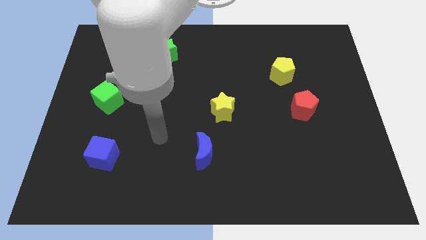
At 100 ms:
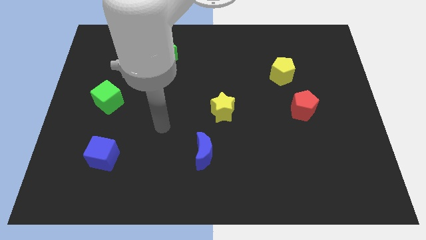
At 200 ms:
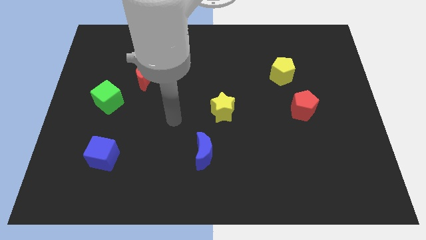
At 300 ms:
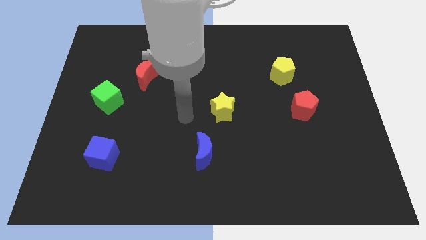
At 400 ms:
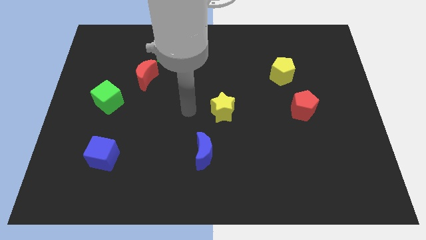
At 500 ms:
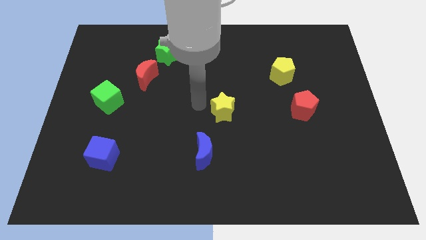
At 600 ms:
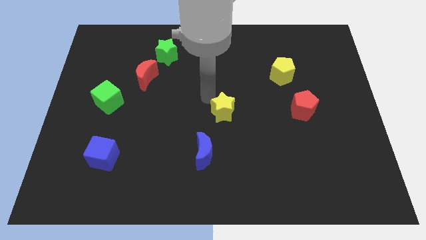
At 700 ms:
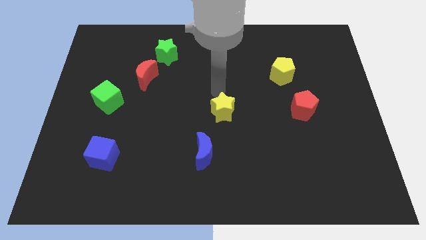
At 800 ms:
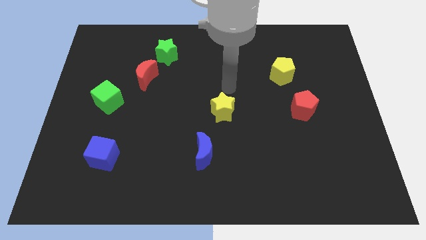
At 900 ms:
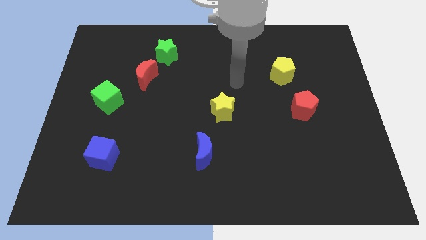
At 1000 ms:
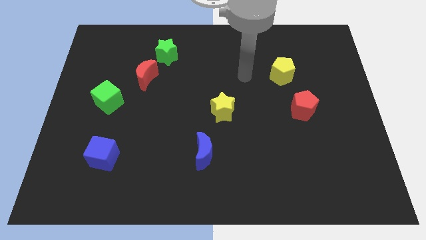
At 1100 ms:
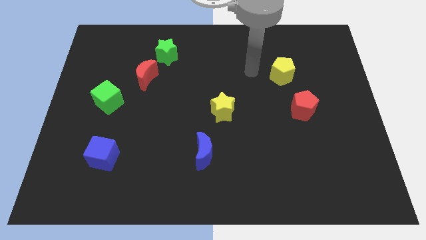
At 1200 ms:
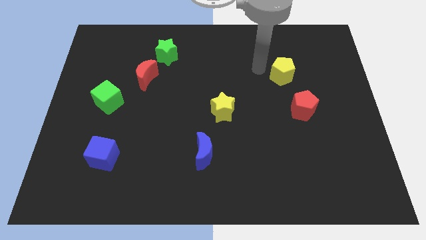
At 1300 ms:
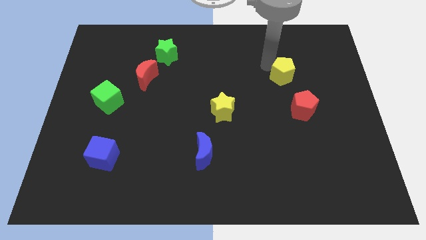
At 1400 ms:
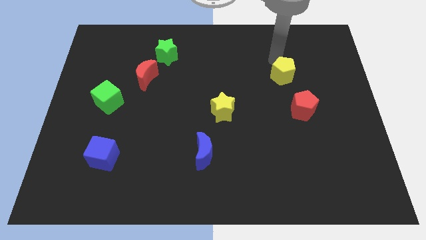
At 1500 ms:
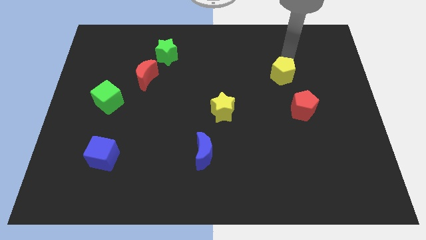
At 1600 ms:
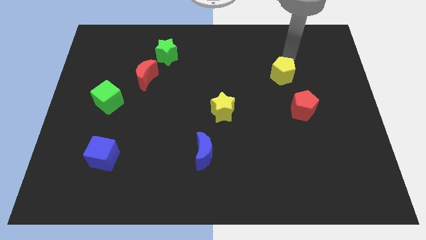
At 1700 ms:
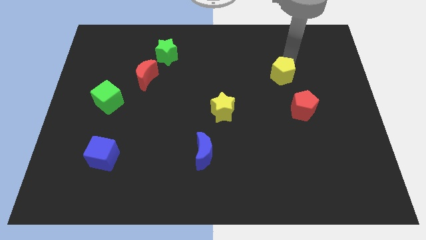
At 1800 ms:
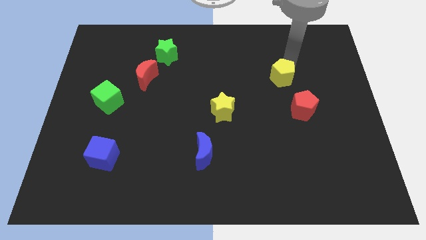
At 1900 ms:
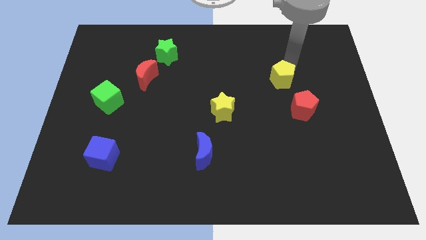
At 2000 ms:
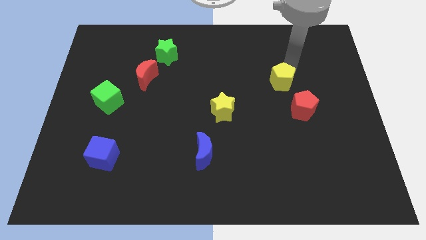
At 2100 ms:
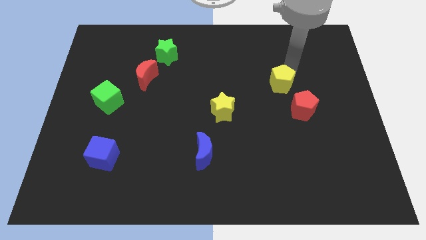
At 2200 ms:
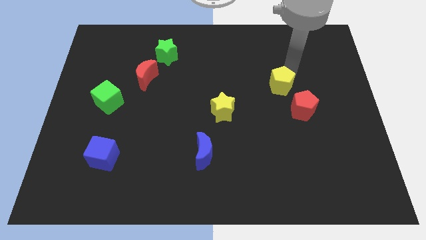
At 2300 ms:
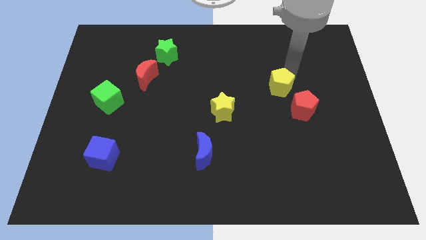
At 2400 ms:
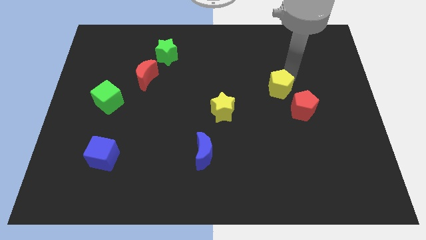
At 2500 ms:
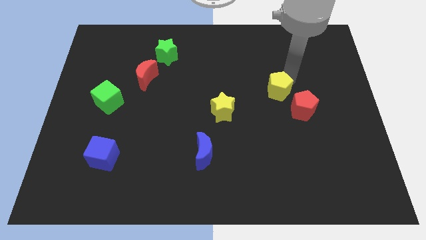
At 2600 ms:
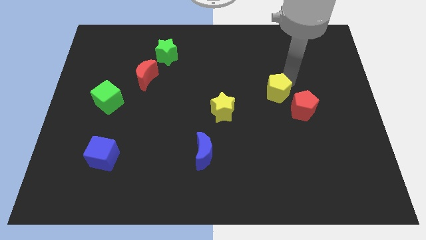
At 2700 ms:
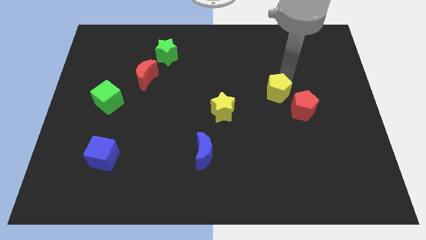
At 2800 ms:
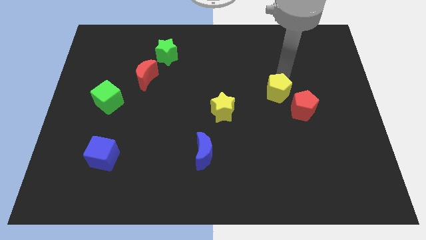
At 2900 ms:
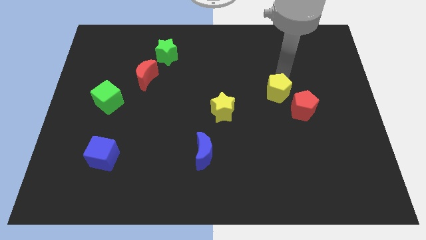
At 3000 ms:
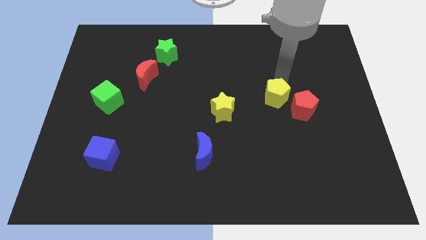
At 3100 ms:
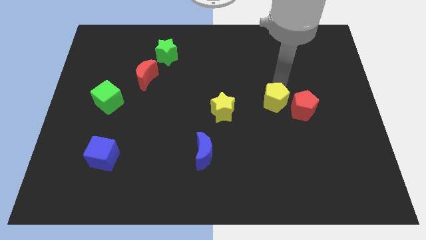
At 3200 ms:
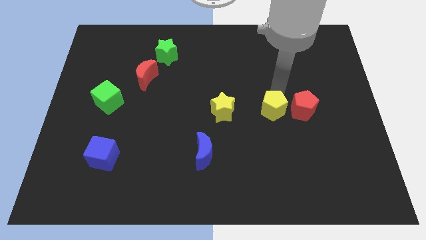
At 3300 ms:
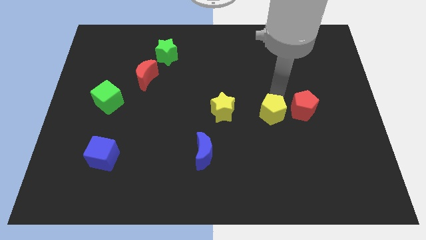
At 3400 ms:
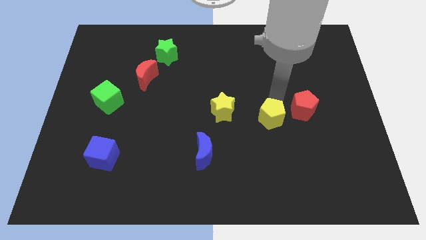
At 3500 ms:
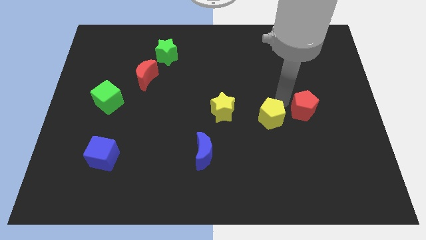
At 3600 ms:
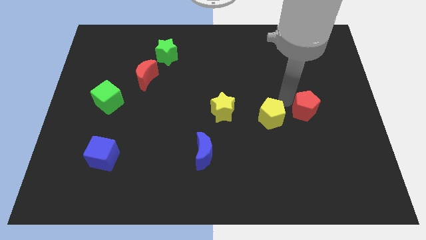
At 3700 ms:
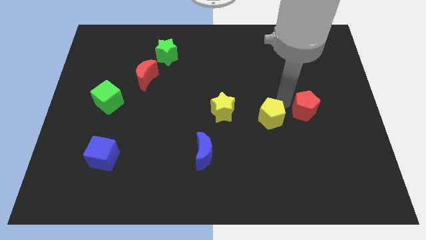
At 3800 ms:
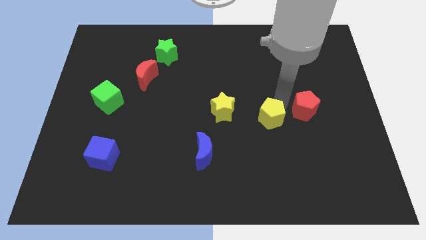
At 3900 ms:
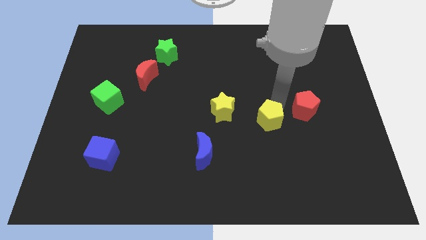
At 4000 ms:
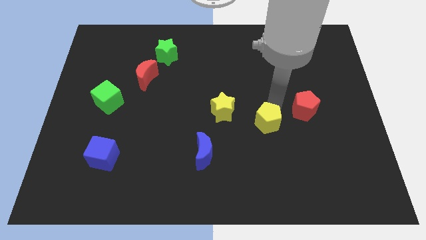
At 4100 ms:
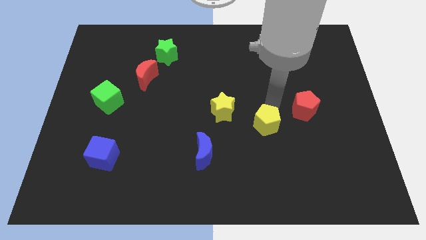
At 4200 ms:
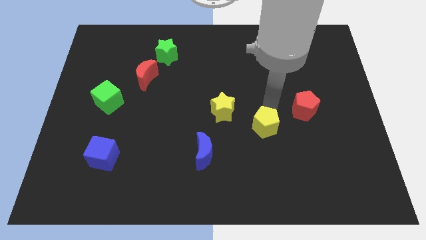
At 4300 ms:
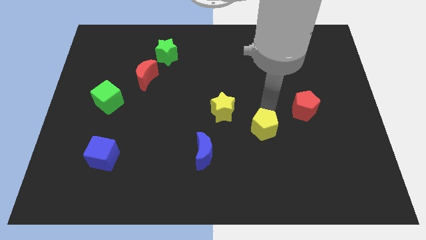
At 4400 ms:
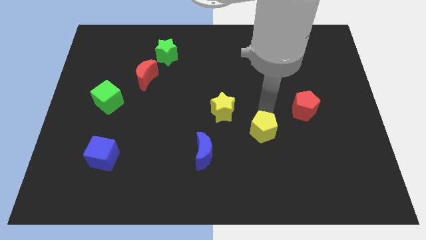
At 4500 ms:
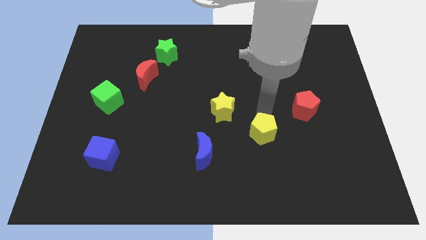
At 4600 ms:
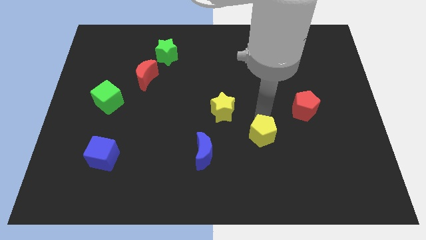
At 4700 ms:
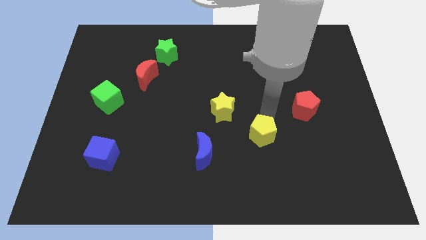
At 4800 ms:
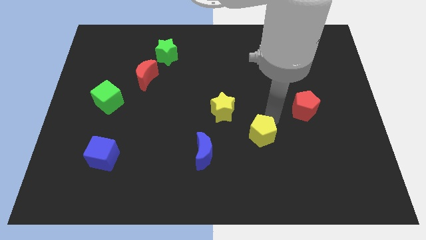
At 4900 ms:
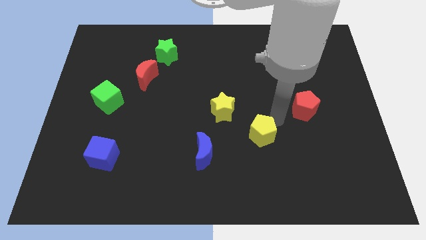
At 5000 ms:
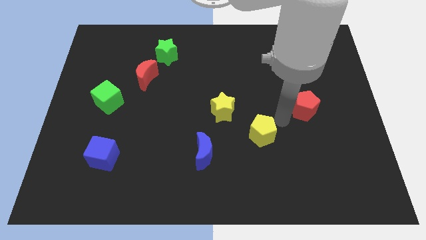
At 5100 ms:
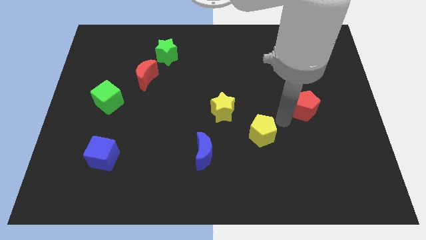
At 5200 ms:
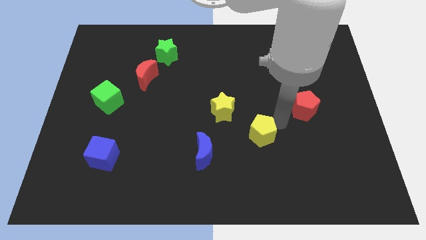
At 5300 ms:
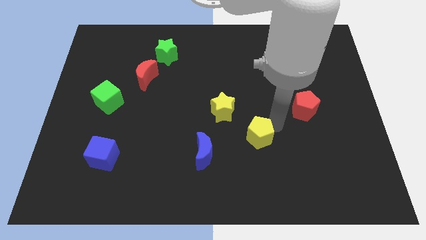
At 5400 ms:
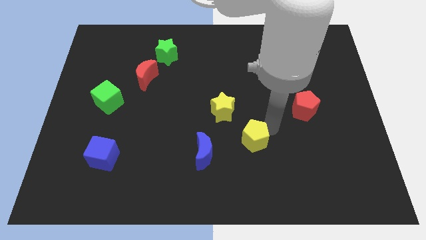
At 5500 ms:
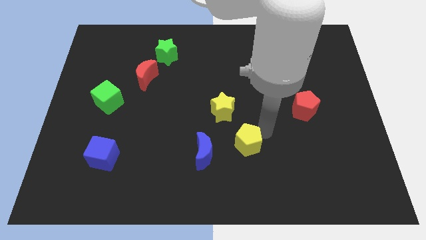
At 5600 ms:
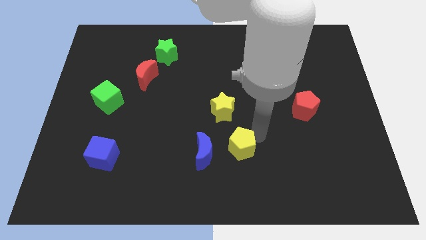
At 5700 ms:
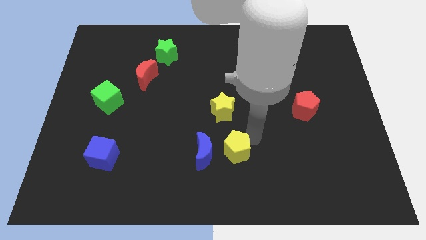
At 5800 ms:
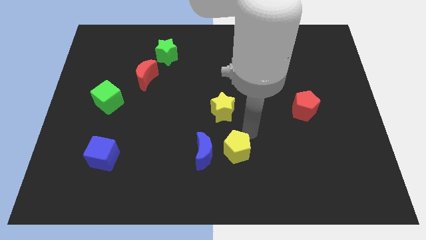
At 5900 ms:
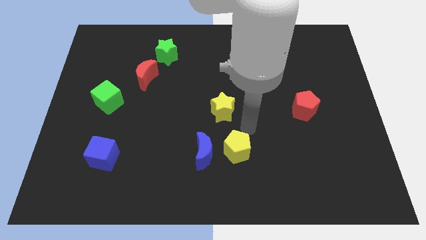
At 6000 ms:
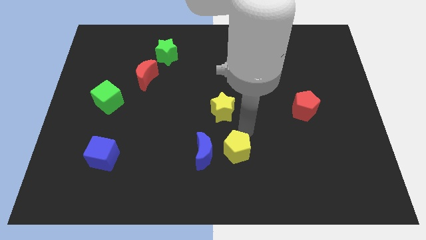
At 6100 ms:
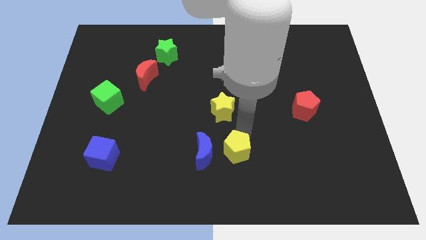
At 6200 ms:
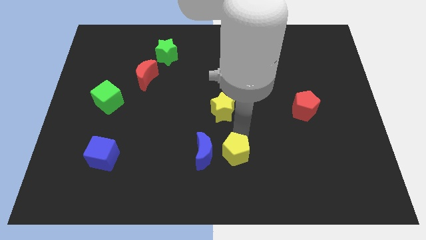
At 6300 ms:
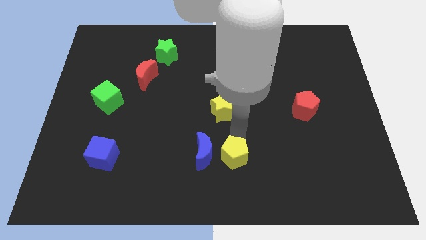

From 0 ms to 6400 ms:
move the yellow pentagon to the bottom side
